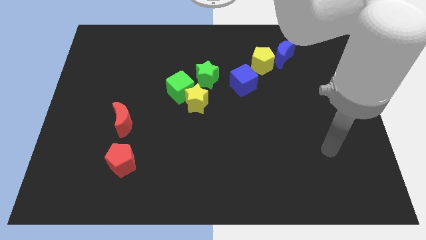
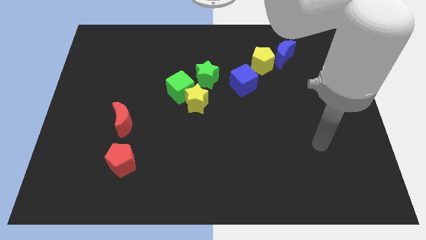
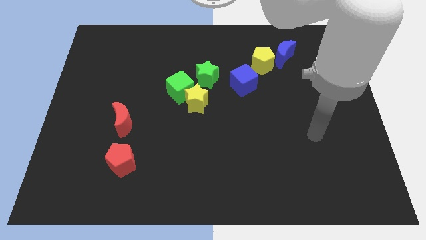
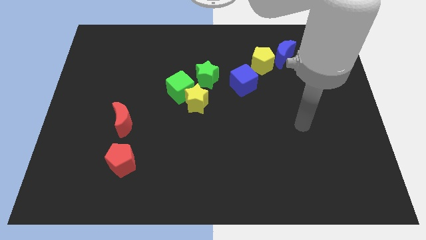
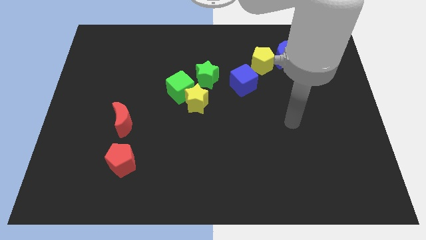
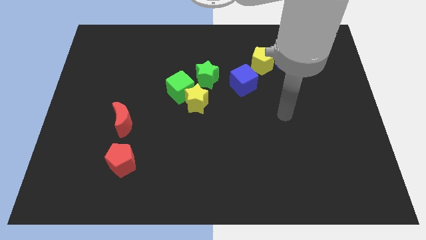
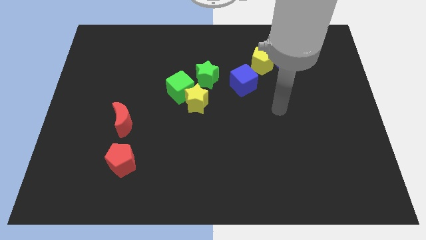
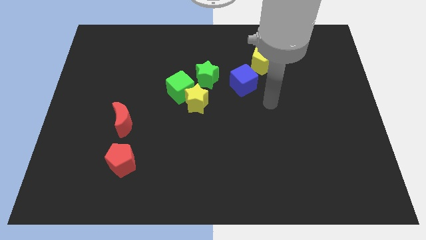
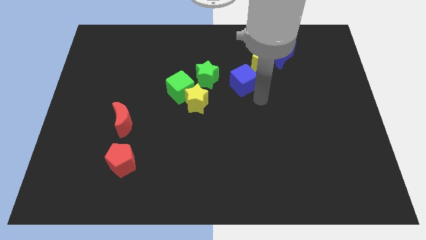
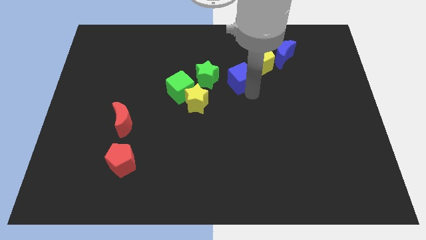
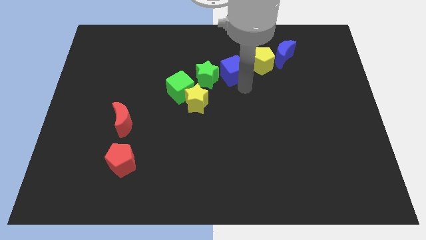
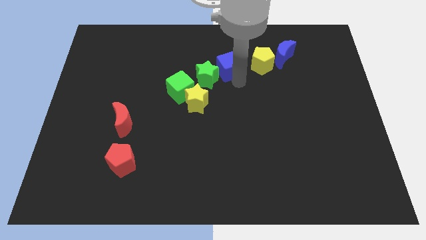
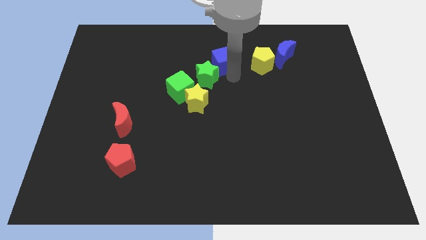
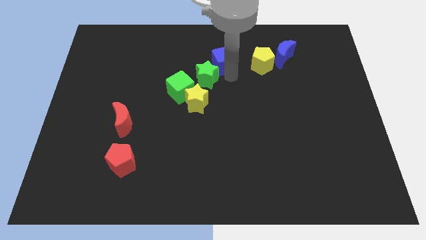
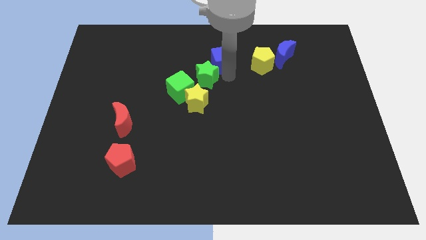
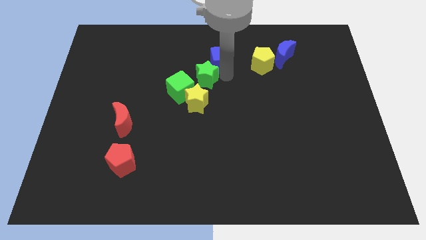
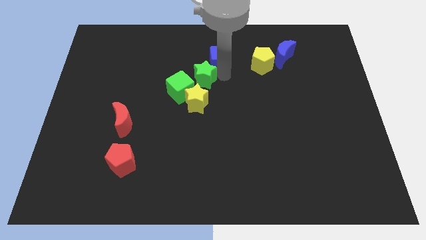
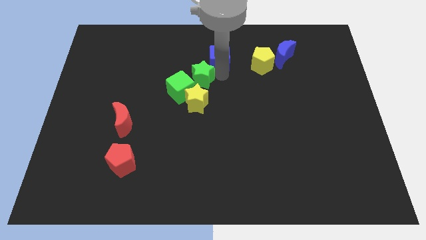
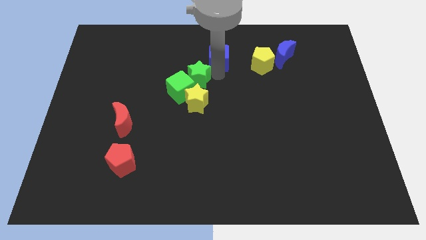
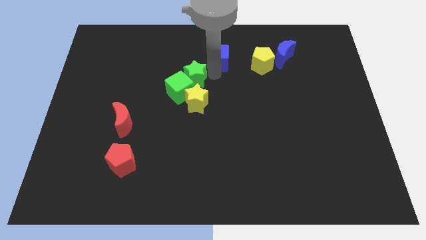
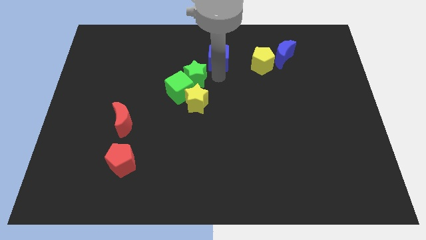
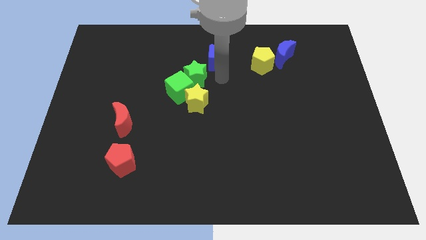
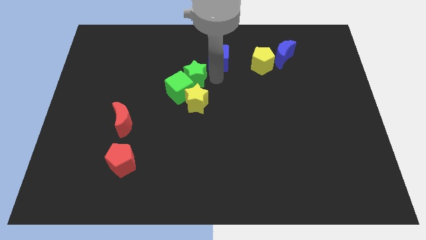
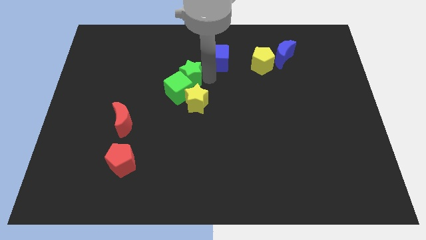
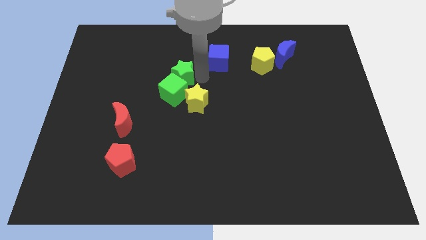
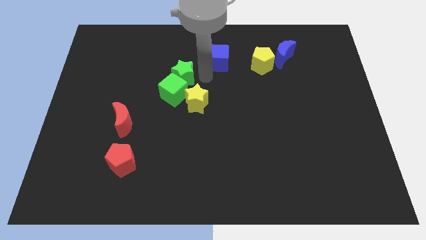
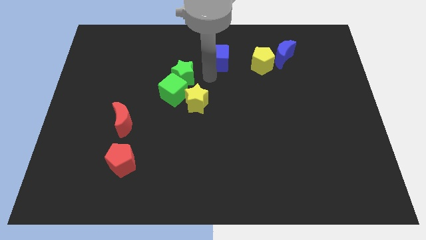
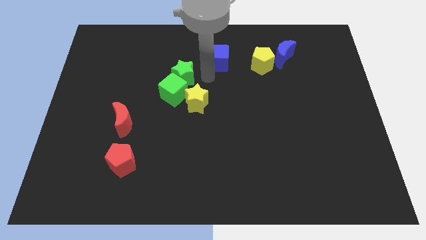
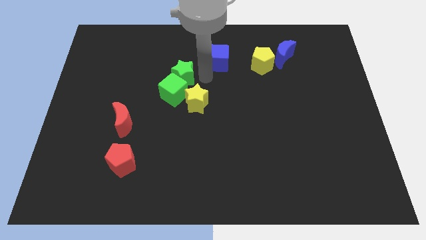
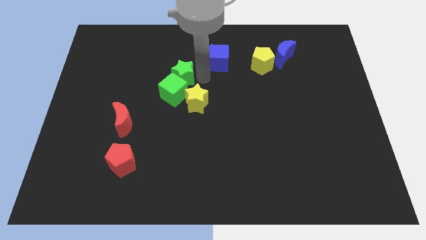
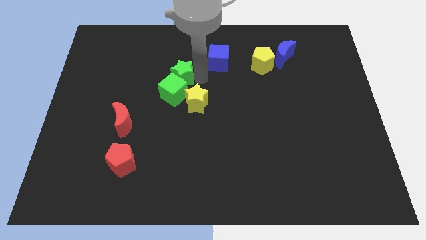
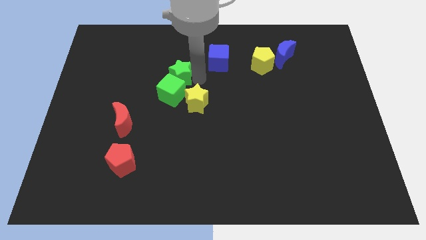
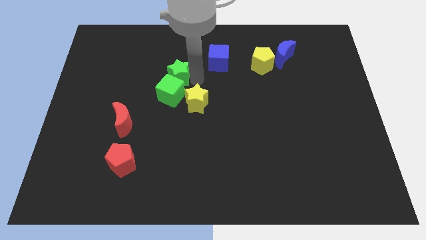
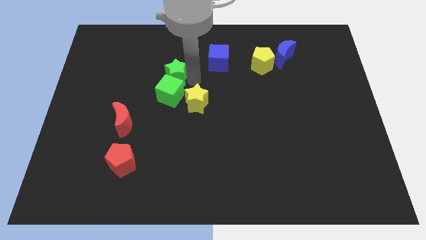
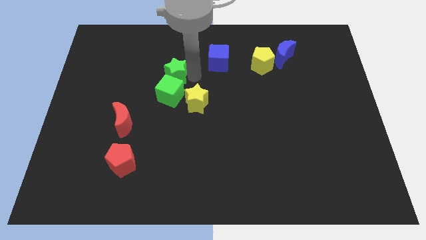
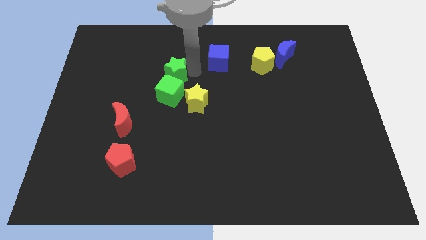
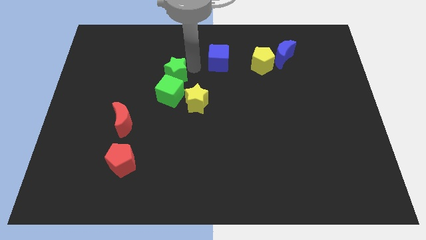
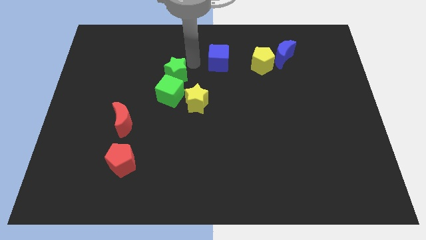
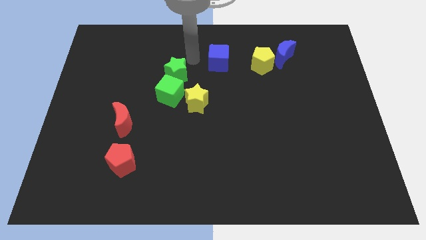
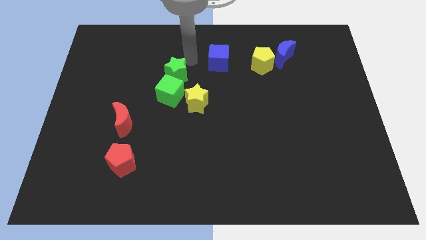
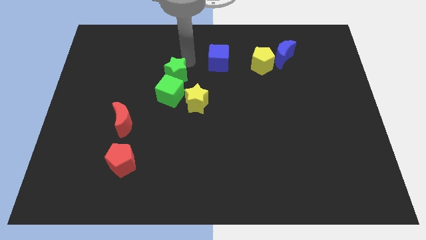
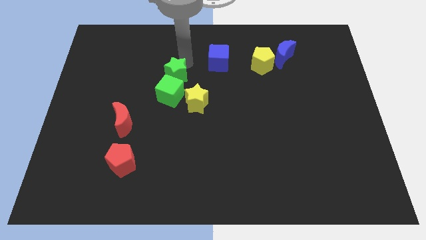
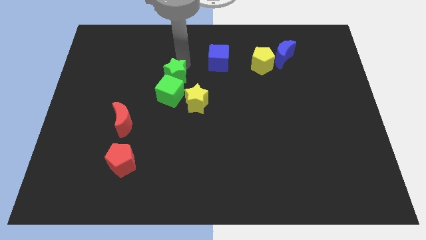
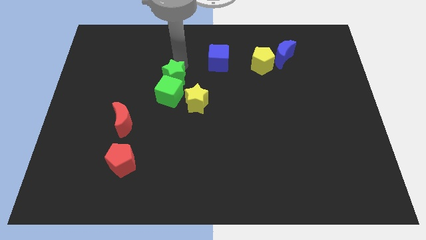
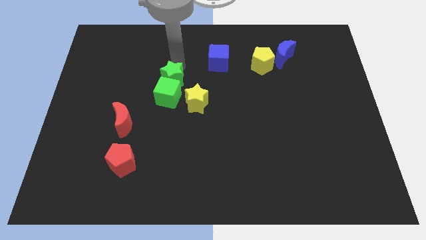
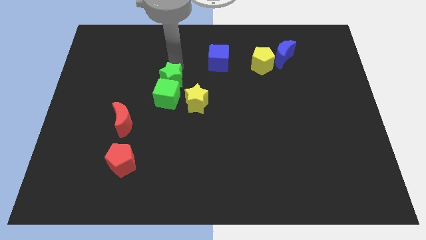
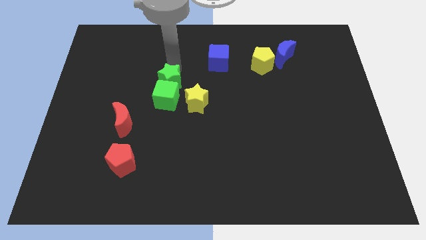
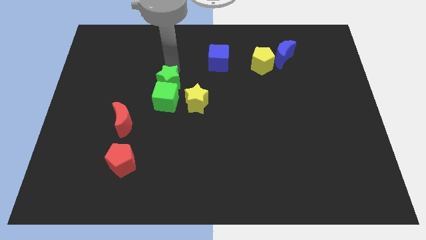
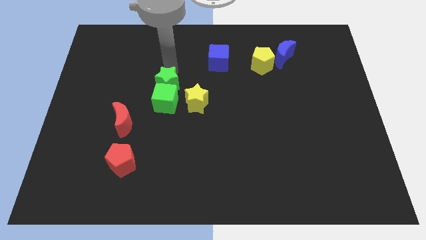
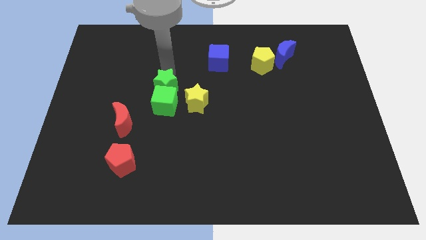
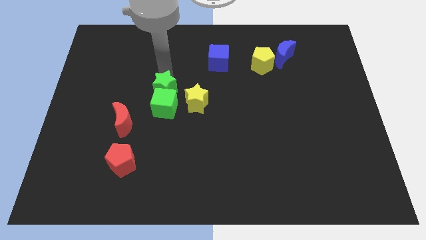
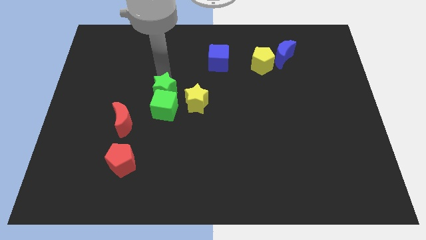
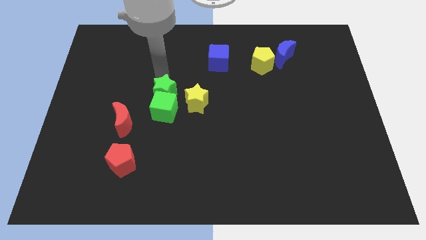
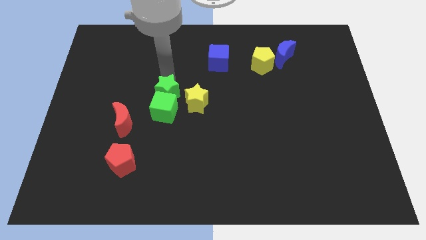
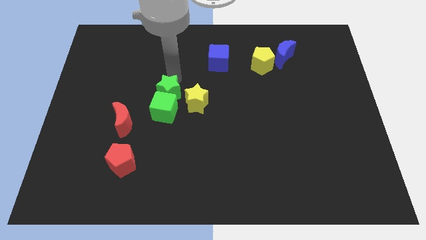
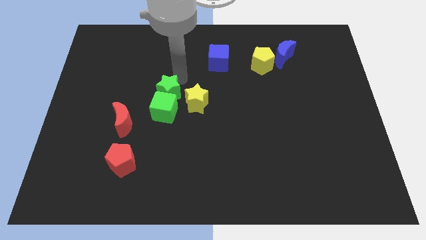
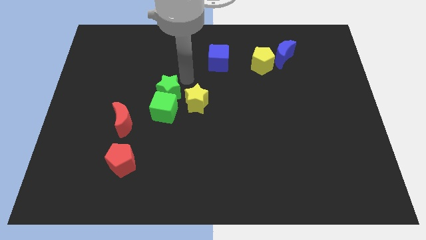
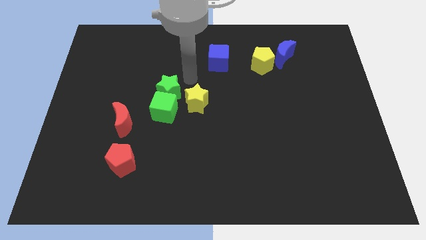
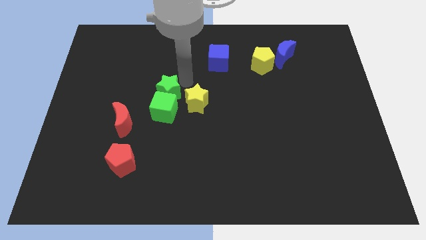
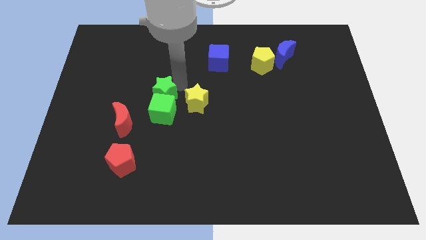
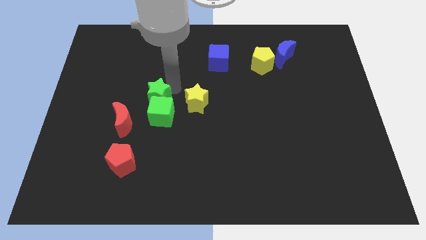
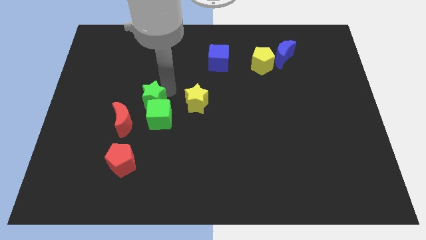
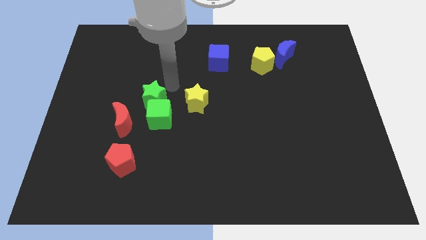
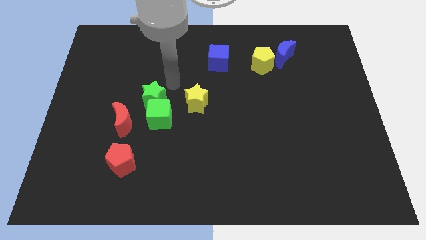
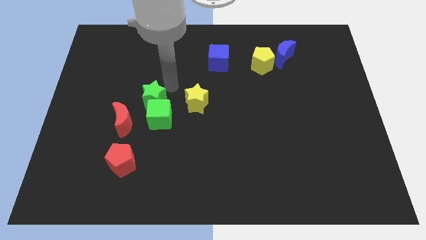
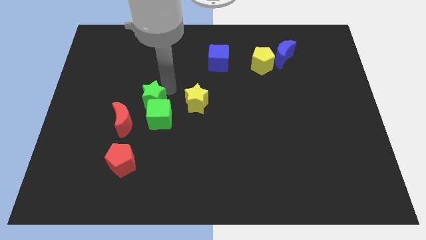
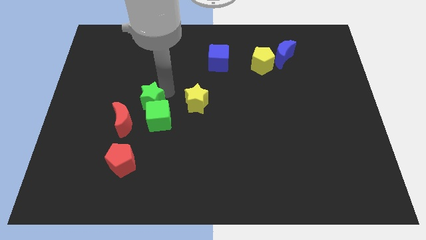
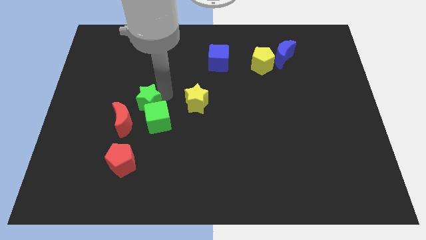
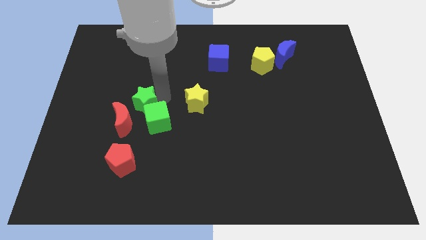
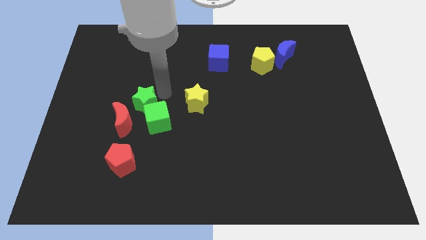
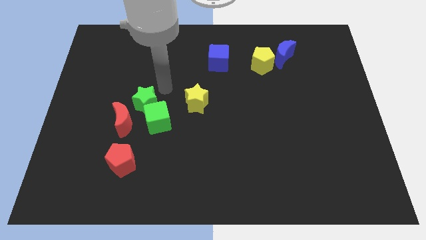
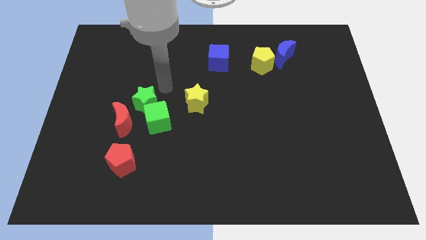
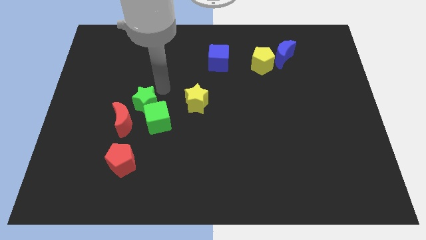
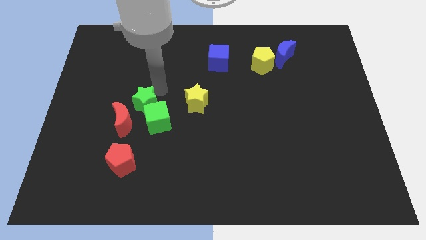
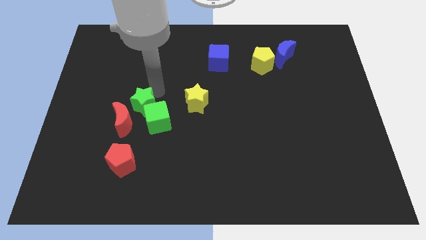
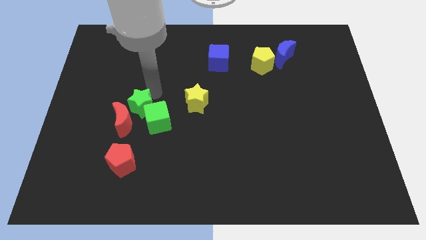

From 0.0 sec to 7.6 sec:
put the green star to the red moon
